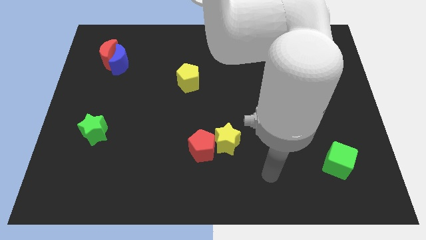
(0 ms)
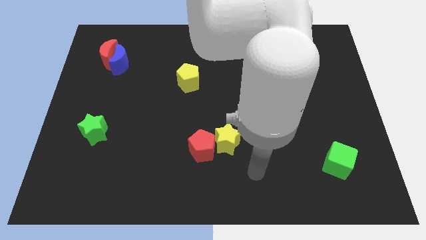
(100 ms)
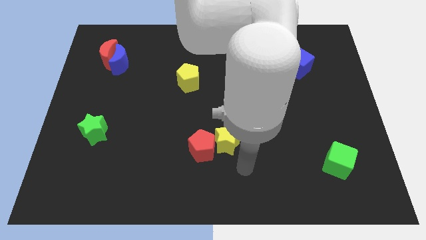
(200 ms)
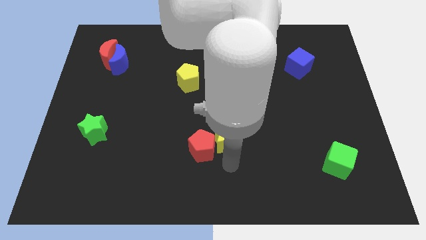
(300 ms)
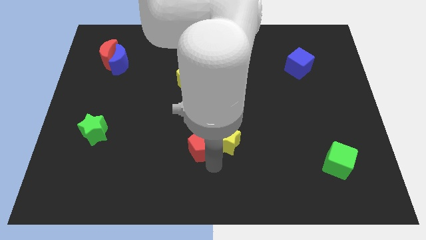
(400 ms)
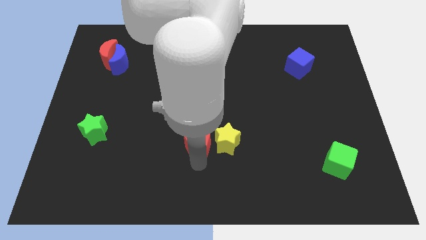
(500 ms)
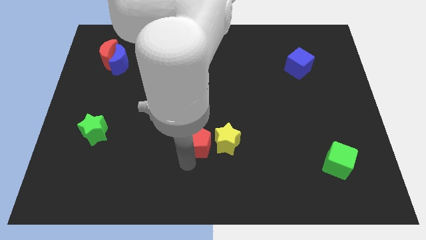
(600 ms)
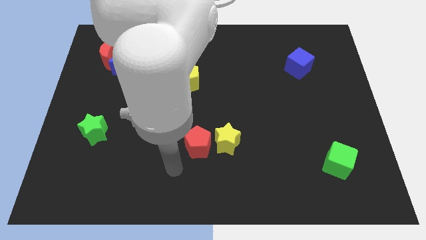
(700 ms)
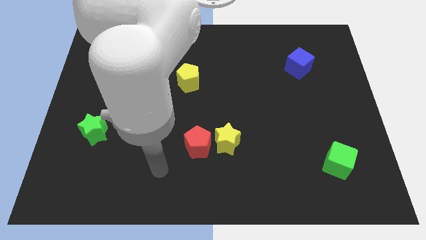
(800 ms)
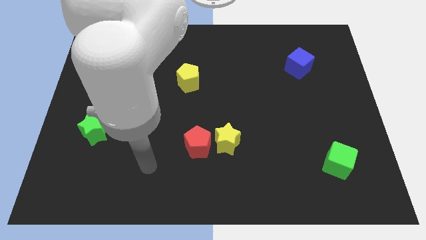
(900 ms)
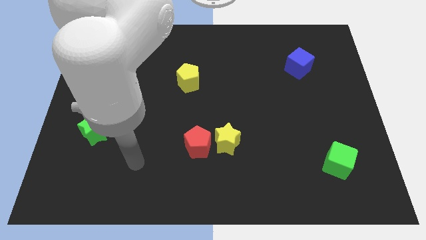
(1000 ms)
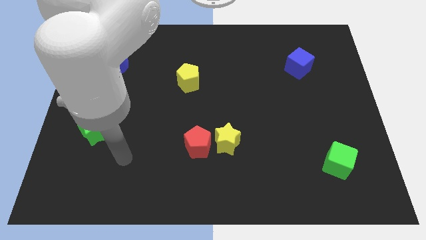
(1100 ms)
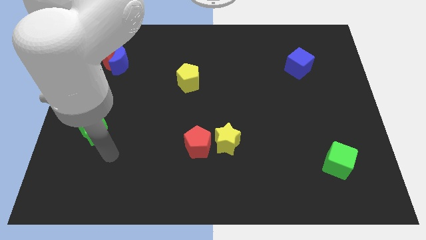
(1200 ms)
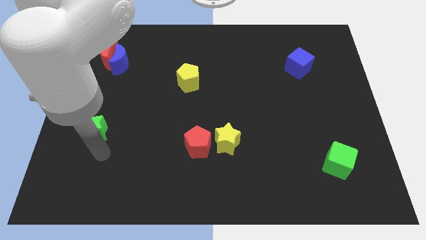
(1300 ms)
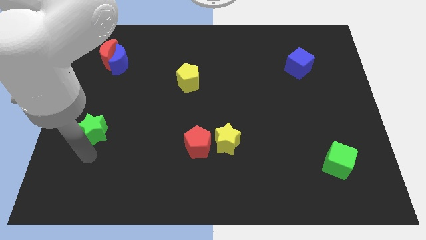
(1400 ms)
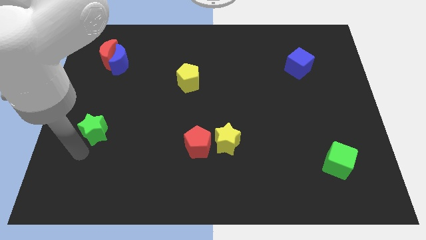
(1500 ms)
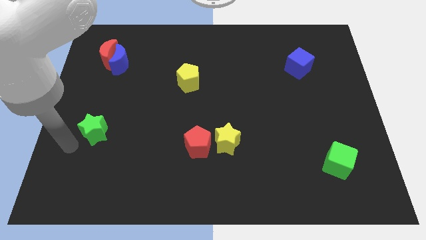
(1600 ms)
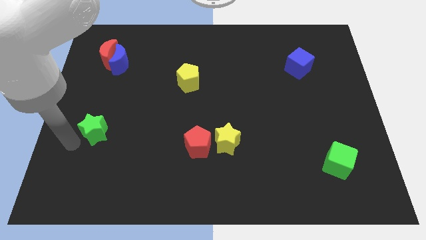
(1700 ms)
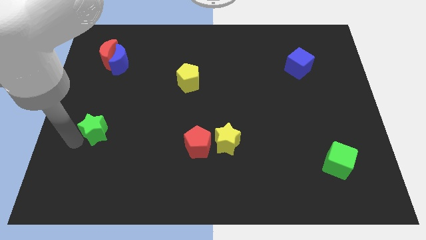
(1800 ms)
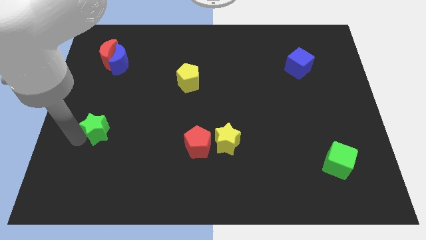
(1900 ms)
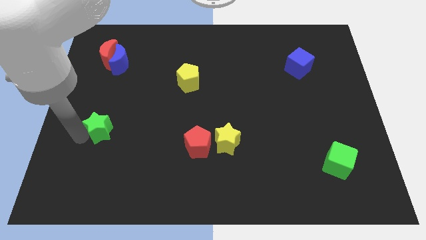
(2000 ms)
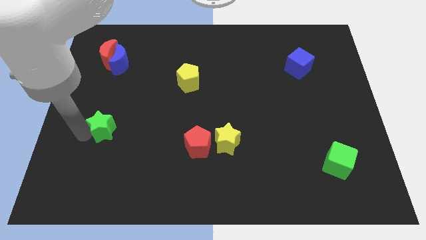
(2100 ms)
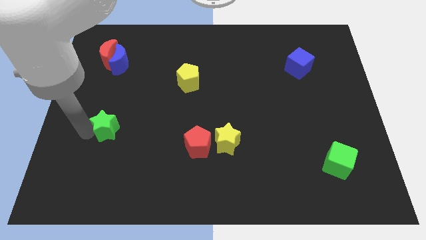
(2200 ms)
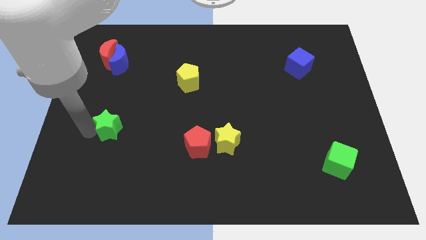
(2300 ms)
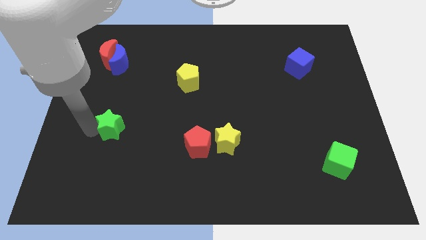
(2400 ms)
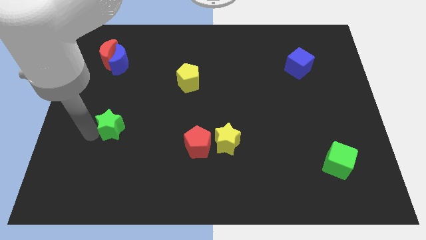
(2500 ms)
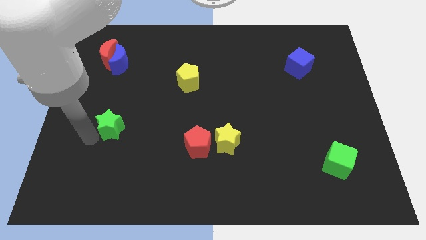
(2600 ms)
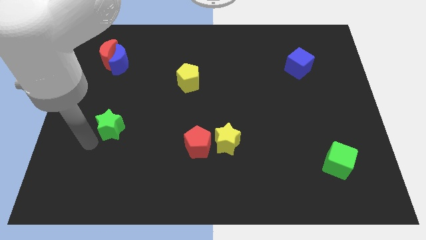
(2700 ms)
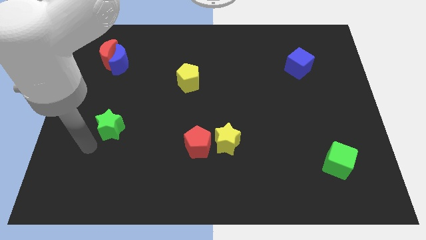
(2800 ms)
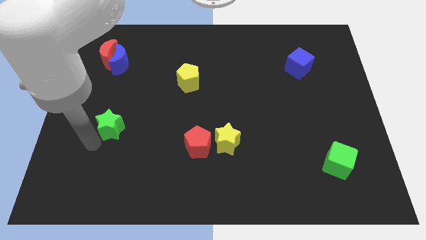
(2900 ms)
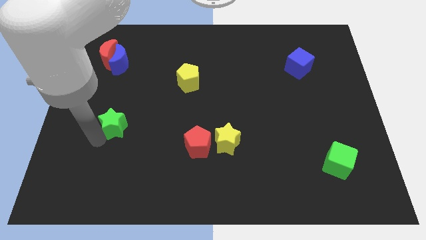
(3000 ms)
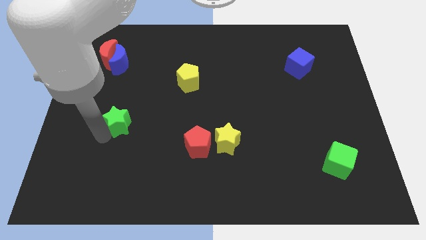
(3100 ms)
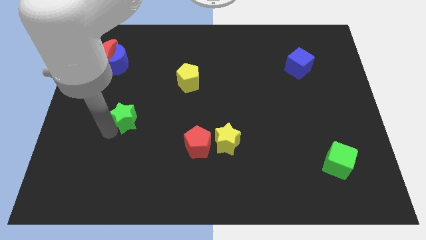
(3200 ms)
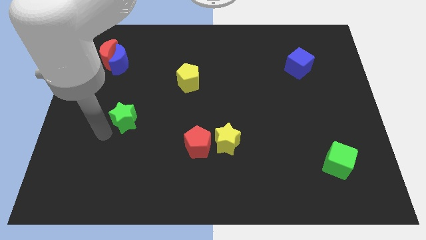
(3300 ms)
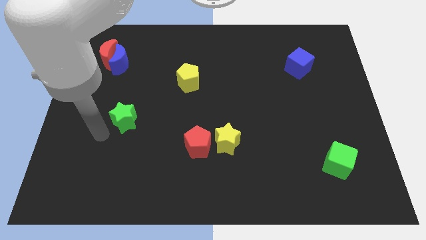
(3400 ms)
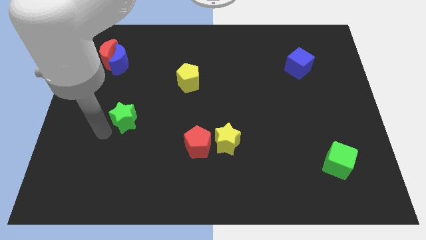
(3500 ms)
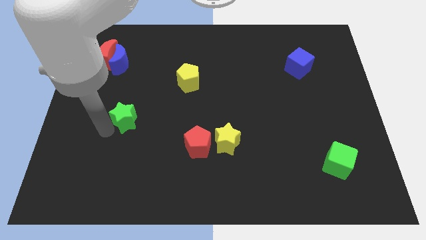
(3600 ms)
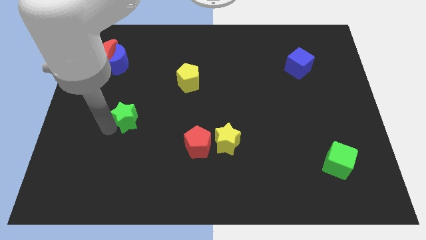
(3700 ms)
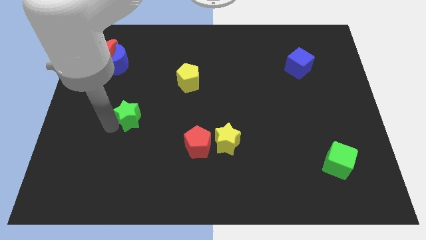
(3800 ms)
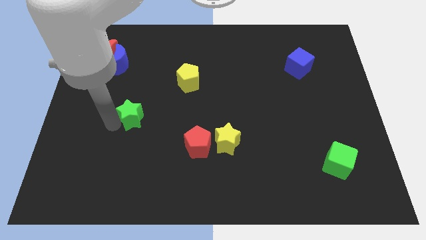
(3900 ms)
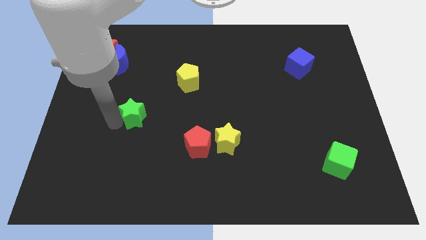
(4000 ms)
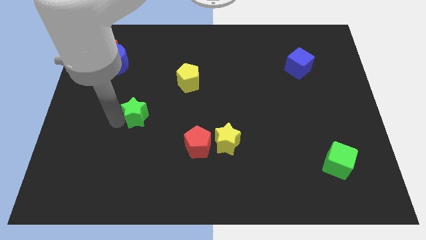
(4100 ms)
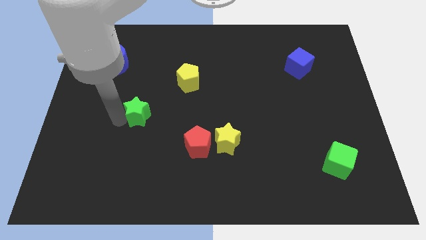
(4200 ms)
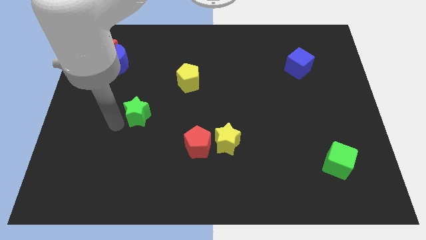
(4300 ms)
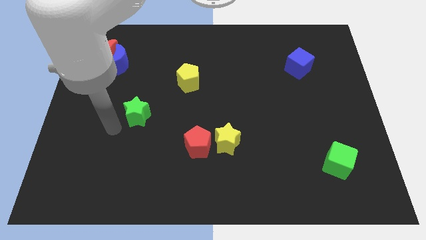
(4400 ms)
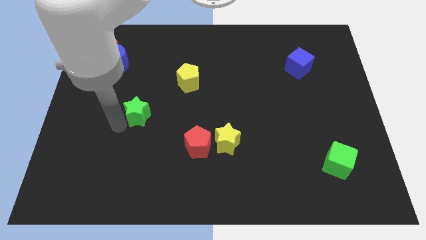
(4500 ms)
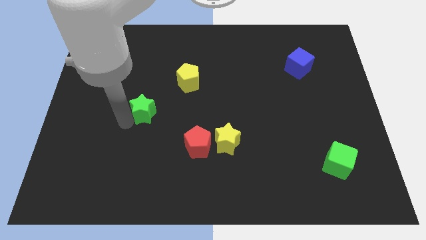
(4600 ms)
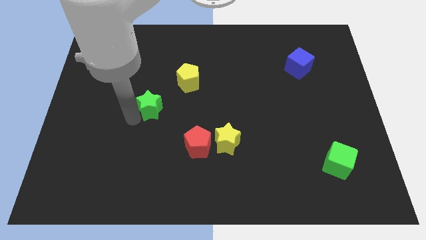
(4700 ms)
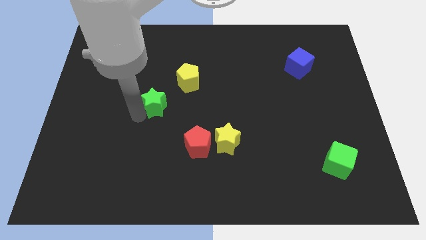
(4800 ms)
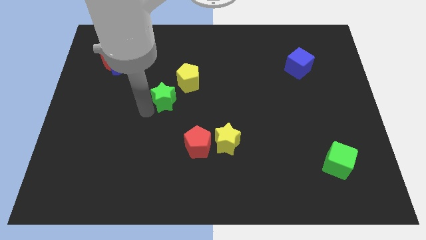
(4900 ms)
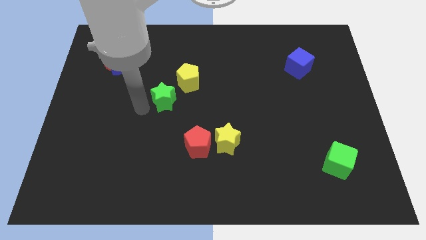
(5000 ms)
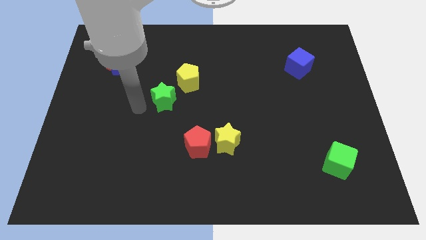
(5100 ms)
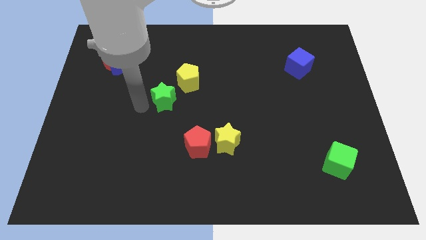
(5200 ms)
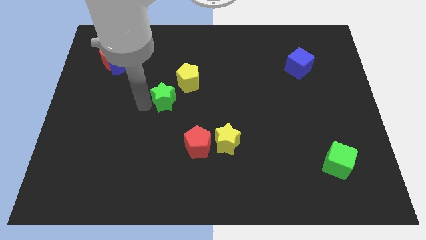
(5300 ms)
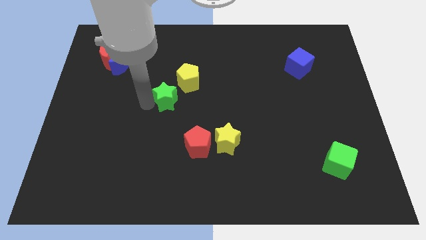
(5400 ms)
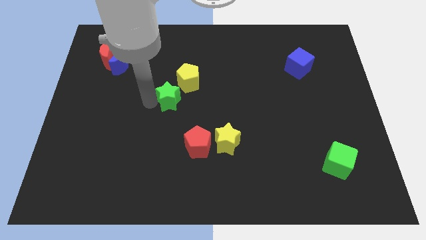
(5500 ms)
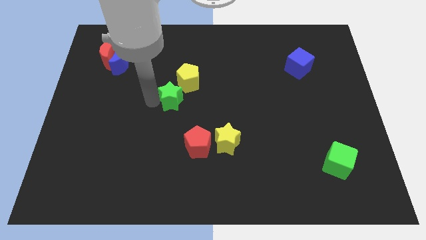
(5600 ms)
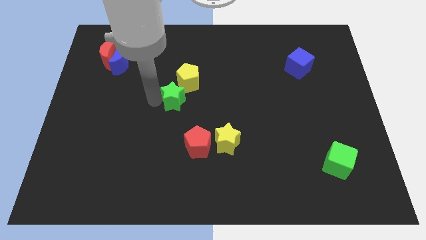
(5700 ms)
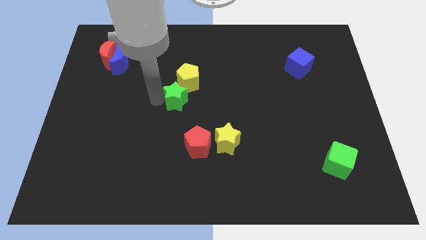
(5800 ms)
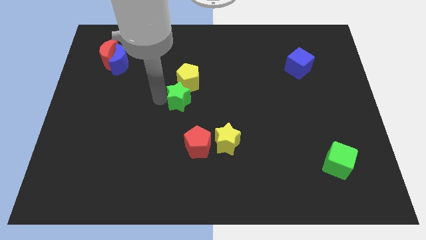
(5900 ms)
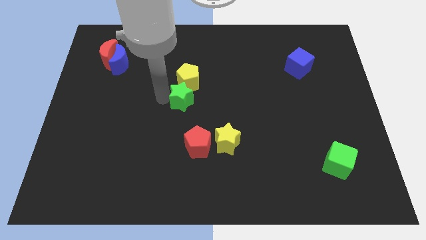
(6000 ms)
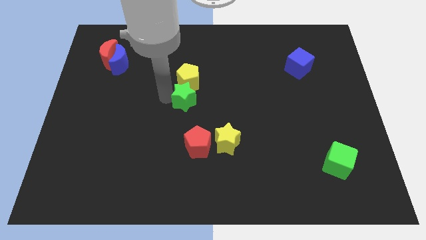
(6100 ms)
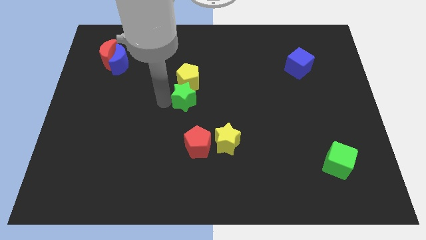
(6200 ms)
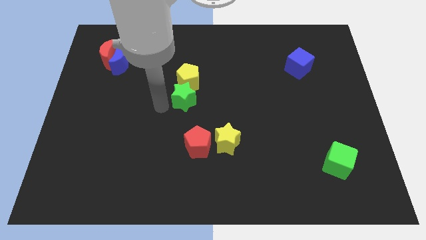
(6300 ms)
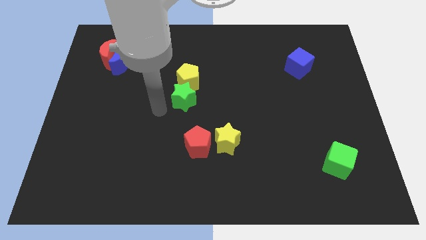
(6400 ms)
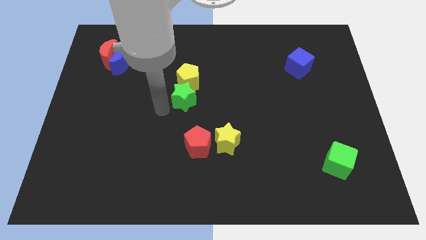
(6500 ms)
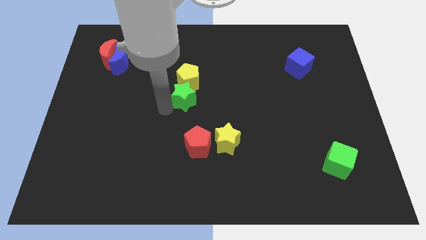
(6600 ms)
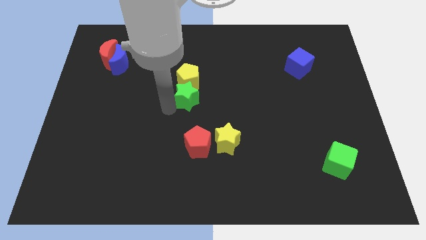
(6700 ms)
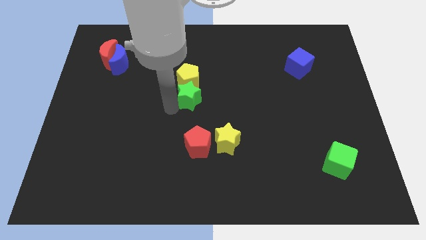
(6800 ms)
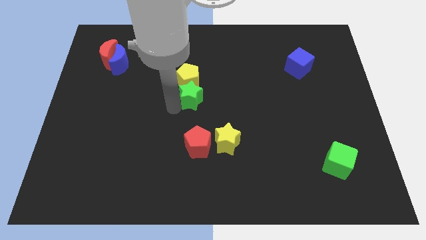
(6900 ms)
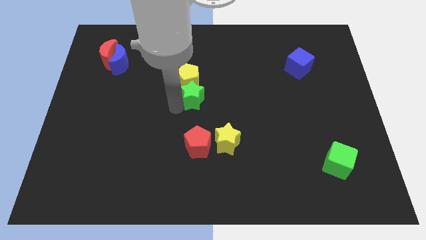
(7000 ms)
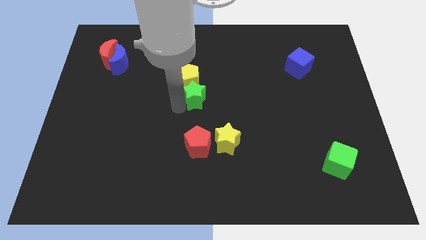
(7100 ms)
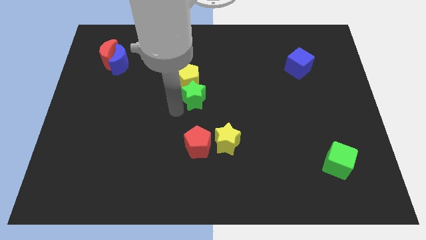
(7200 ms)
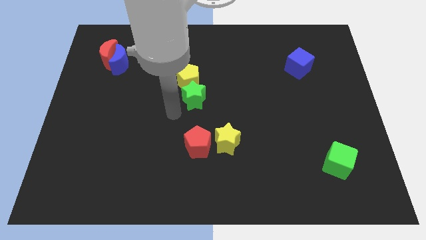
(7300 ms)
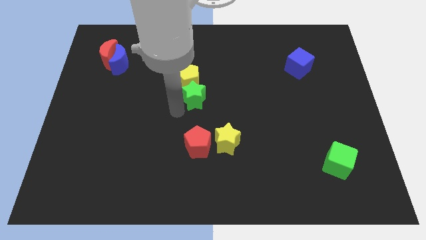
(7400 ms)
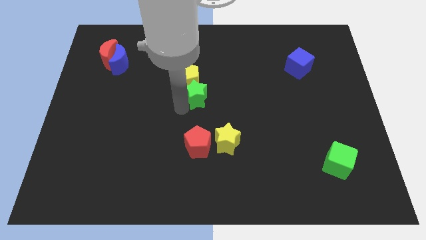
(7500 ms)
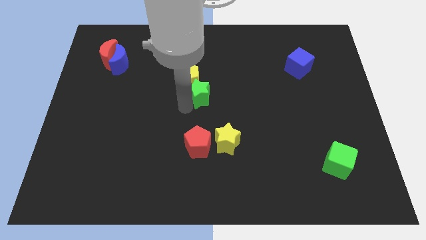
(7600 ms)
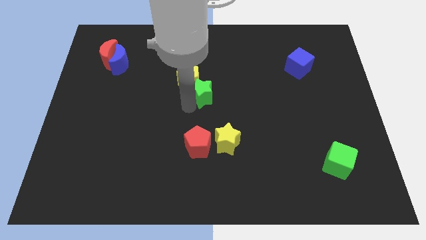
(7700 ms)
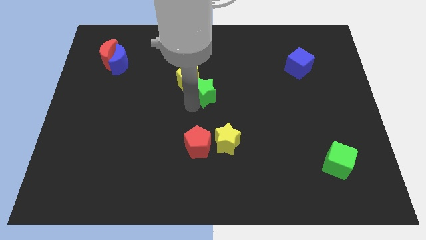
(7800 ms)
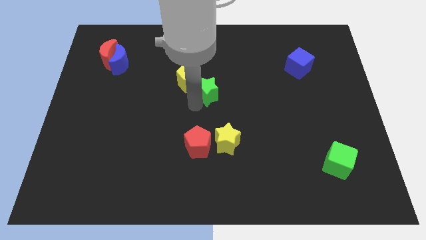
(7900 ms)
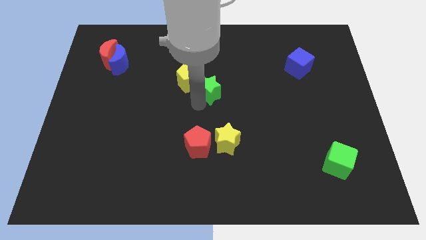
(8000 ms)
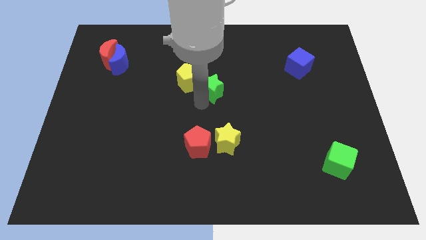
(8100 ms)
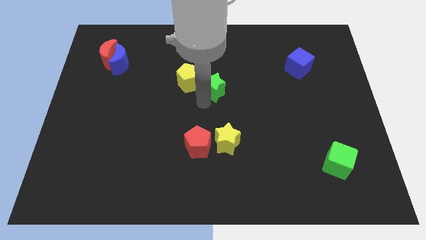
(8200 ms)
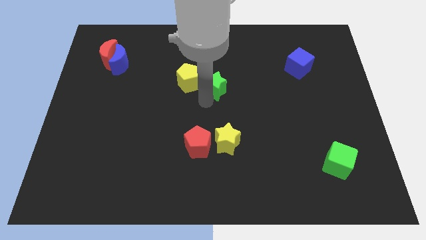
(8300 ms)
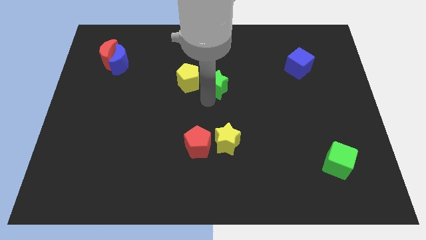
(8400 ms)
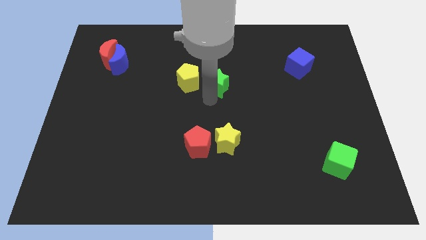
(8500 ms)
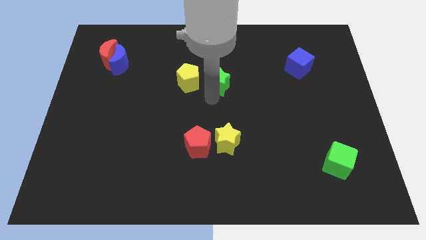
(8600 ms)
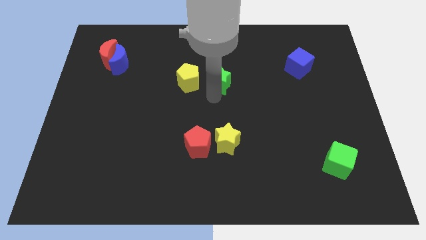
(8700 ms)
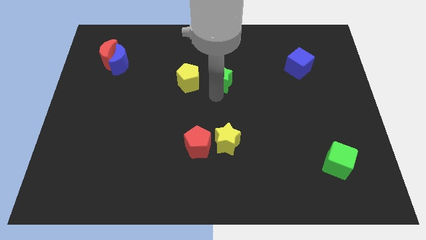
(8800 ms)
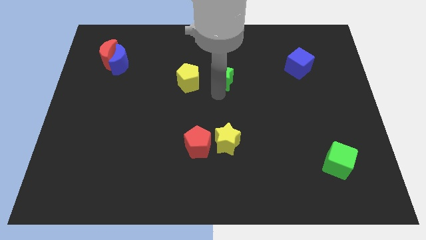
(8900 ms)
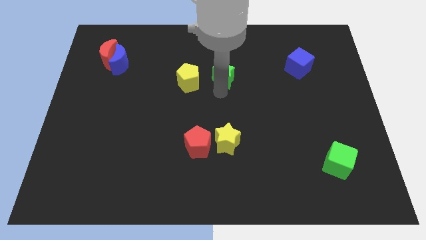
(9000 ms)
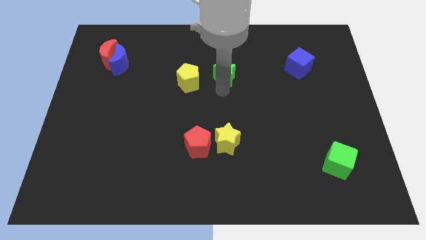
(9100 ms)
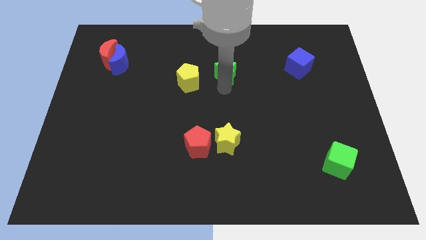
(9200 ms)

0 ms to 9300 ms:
push the green star to the top right side of the yellow pentagon
